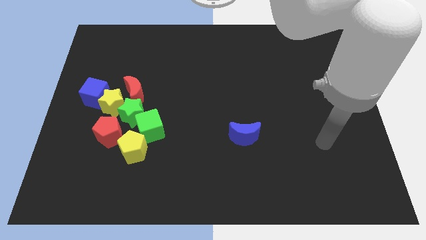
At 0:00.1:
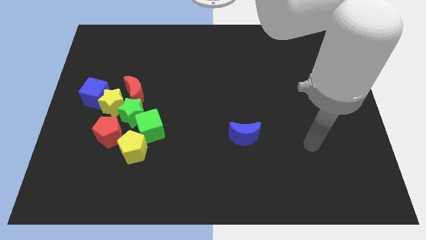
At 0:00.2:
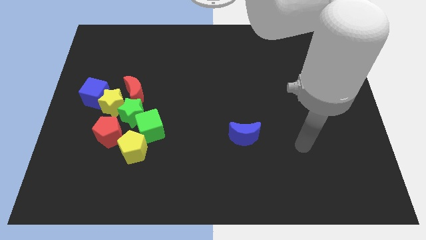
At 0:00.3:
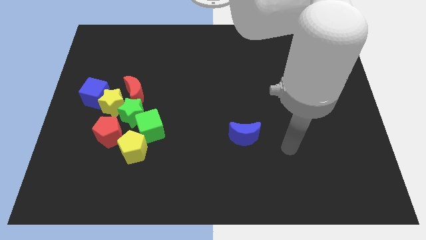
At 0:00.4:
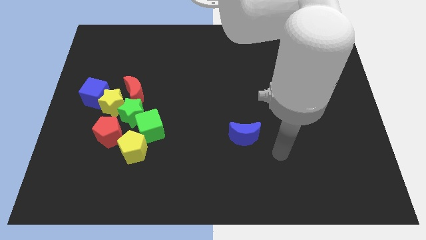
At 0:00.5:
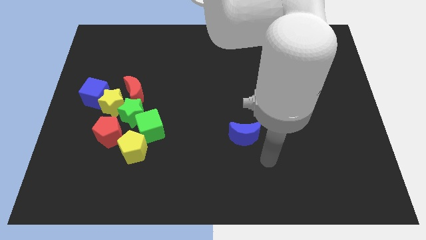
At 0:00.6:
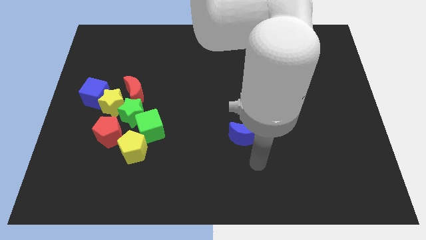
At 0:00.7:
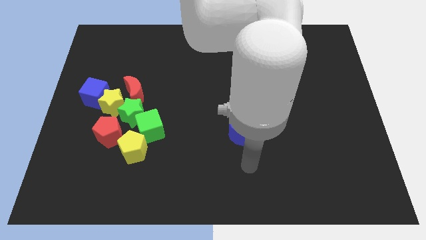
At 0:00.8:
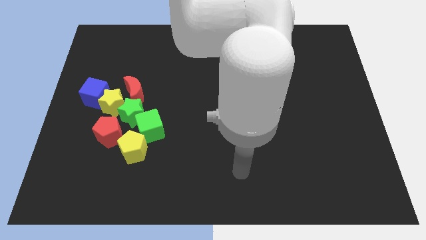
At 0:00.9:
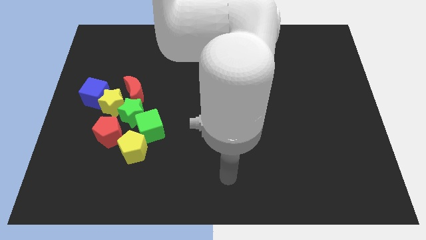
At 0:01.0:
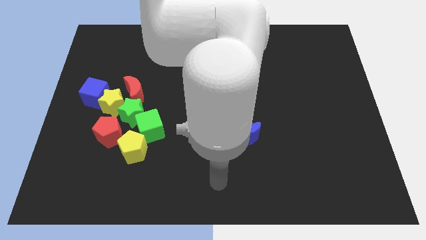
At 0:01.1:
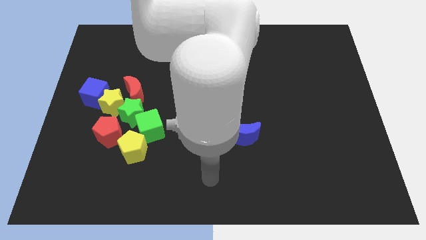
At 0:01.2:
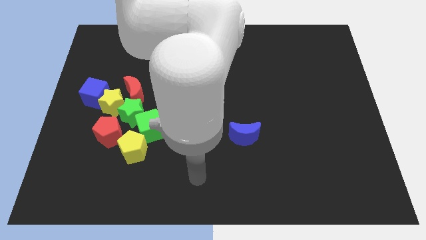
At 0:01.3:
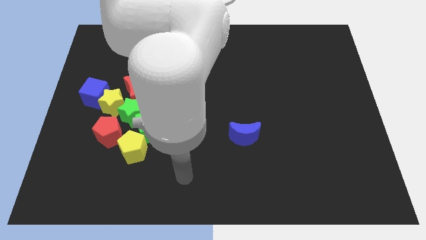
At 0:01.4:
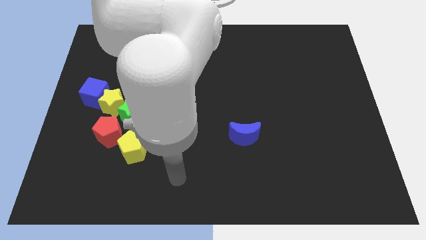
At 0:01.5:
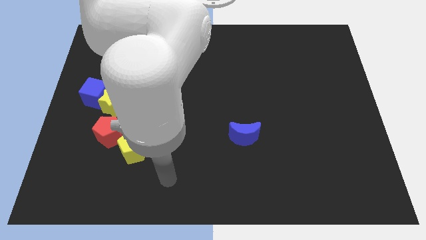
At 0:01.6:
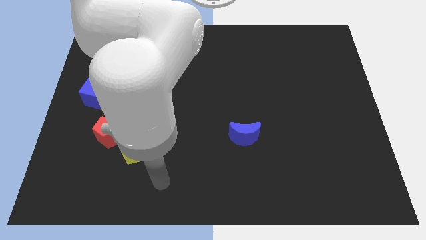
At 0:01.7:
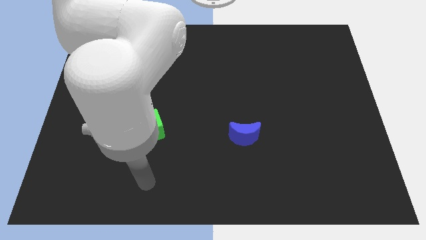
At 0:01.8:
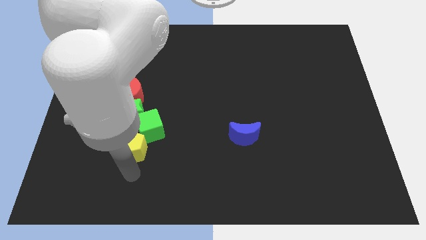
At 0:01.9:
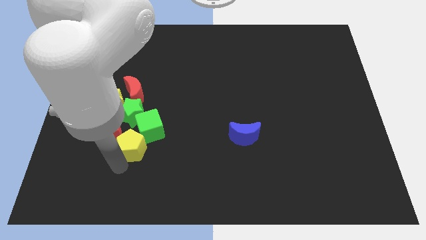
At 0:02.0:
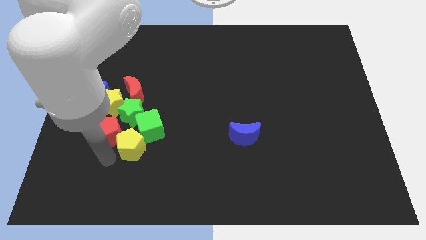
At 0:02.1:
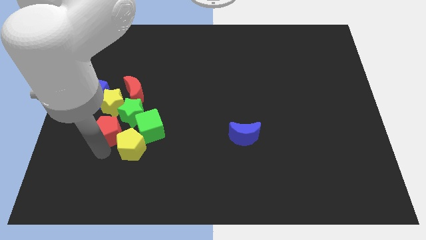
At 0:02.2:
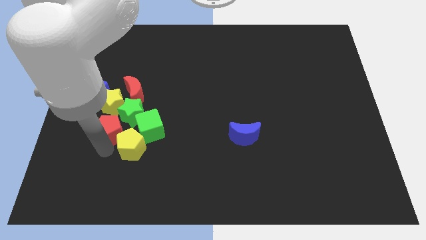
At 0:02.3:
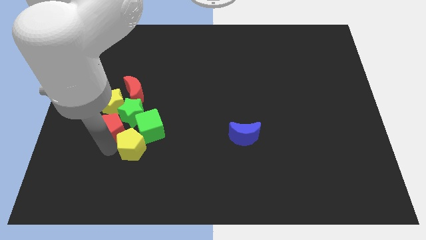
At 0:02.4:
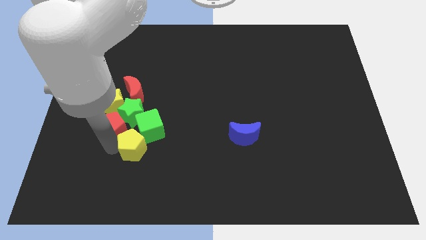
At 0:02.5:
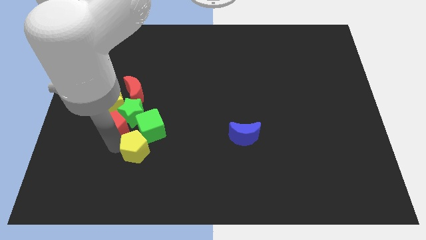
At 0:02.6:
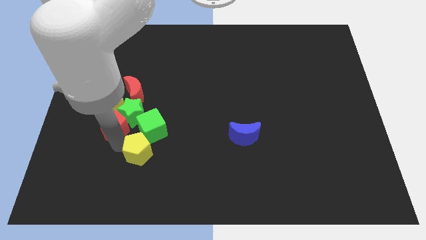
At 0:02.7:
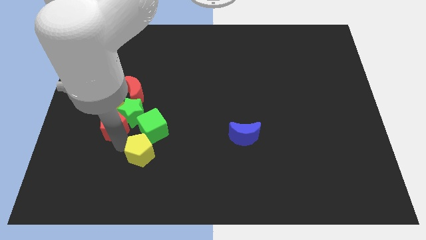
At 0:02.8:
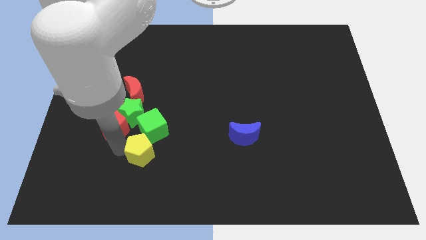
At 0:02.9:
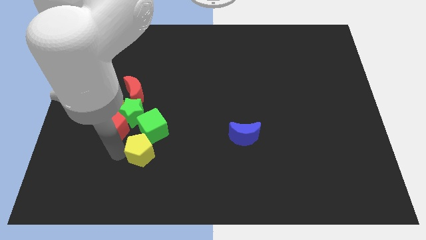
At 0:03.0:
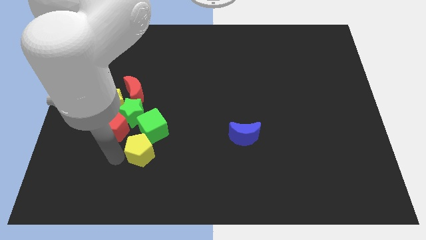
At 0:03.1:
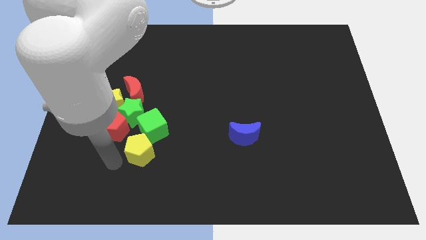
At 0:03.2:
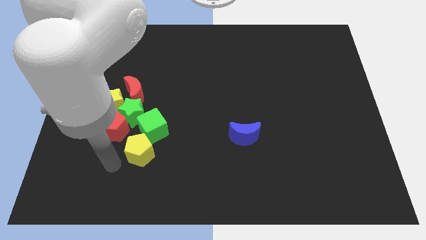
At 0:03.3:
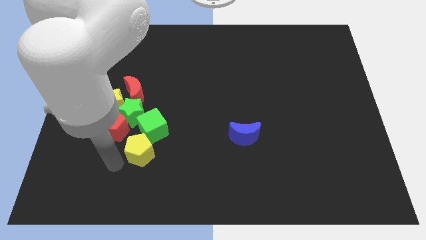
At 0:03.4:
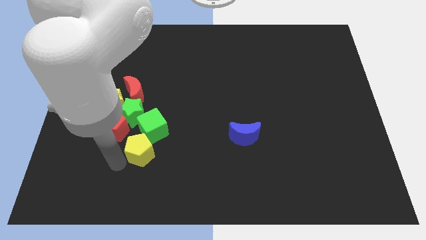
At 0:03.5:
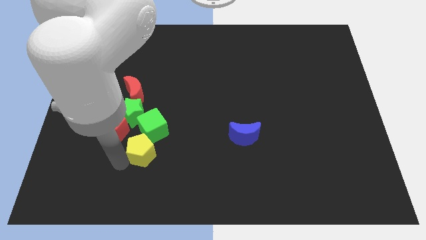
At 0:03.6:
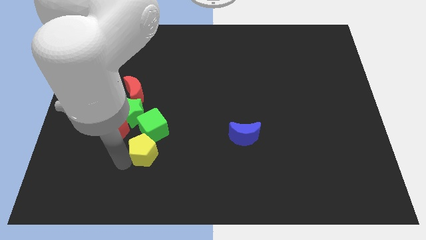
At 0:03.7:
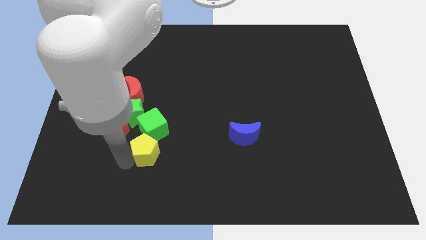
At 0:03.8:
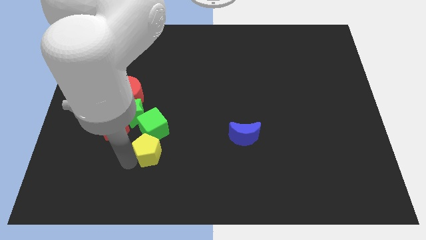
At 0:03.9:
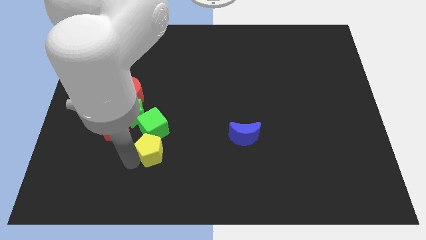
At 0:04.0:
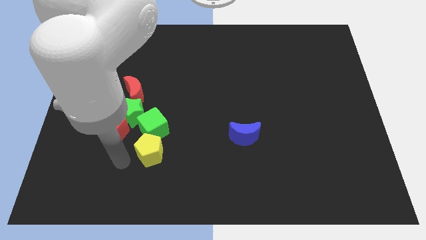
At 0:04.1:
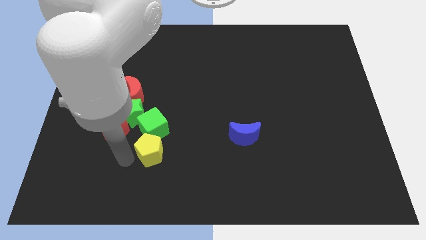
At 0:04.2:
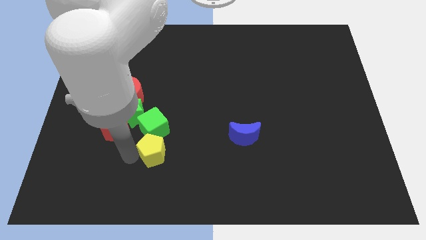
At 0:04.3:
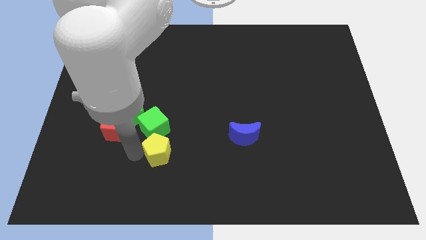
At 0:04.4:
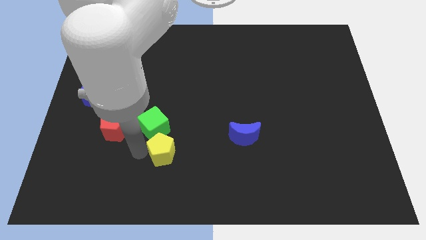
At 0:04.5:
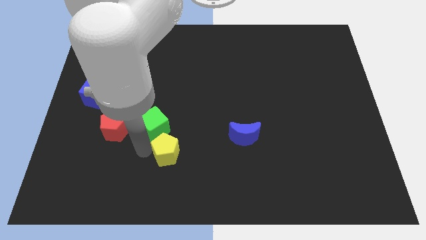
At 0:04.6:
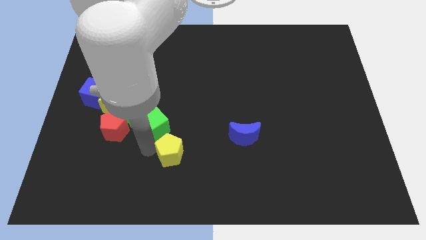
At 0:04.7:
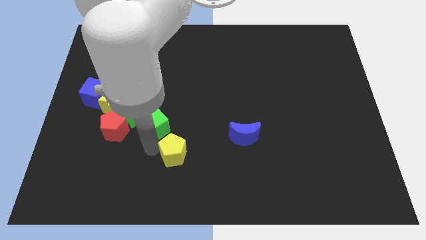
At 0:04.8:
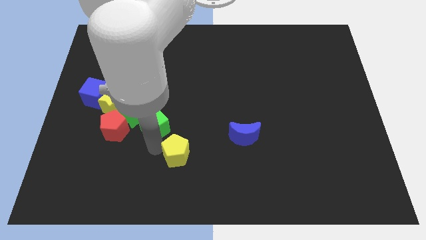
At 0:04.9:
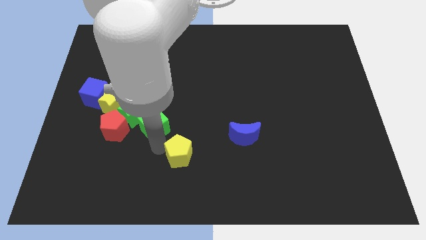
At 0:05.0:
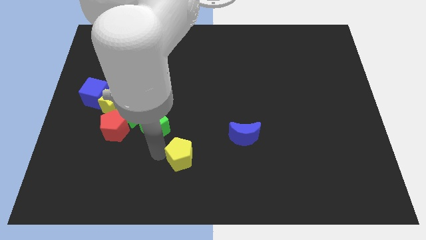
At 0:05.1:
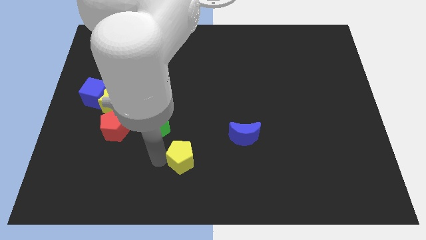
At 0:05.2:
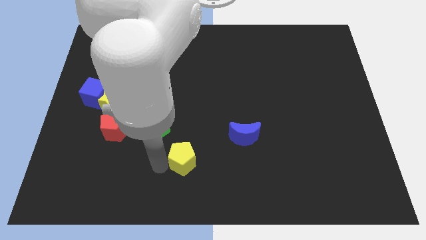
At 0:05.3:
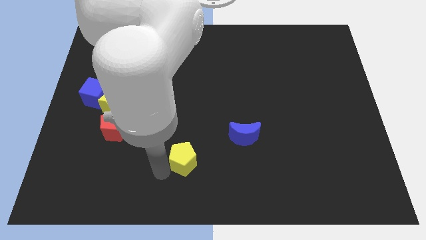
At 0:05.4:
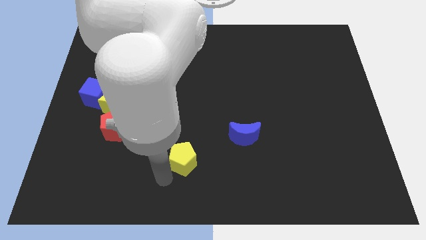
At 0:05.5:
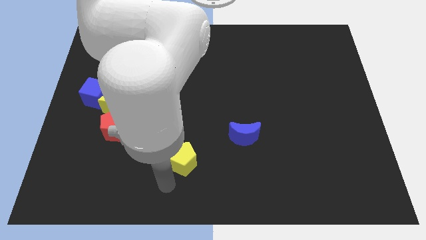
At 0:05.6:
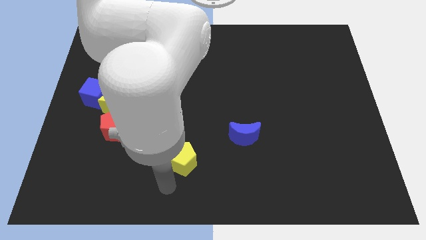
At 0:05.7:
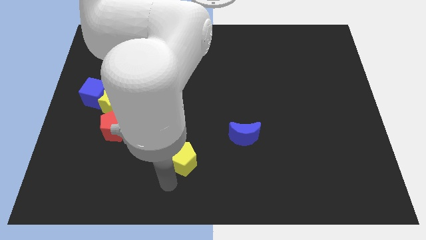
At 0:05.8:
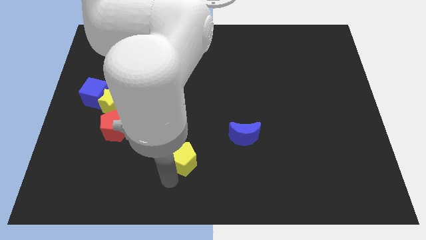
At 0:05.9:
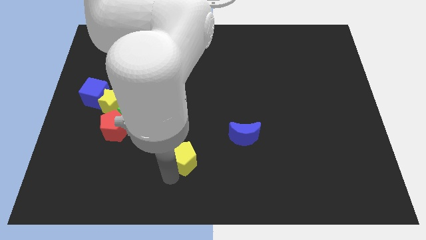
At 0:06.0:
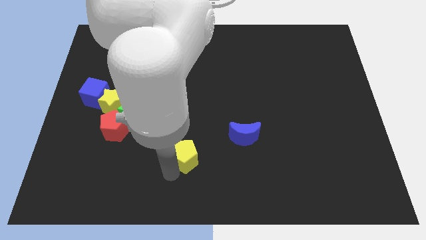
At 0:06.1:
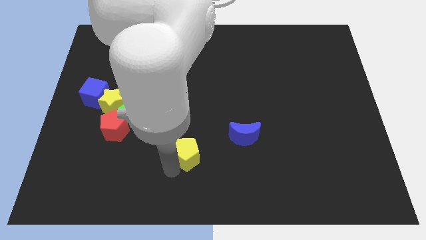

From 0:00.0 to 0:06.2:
push the yellow pentagon to the left of the blue moon

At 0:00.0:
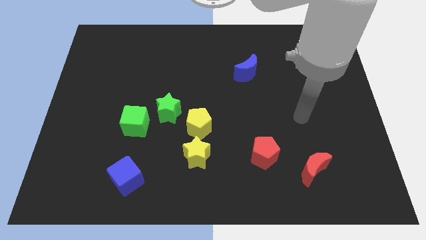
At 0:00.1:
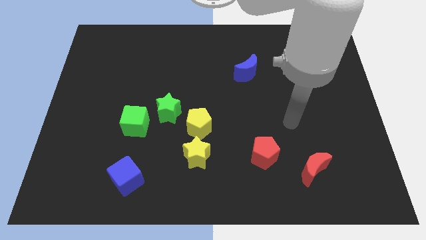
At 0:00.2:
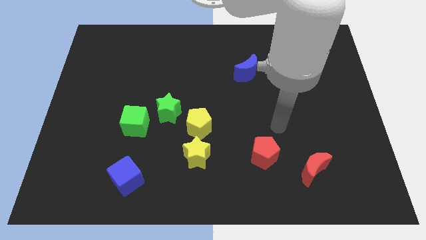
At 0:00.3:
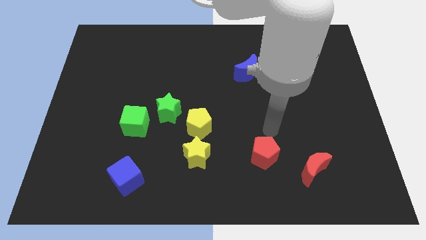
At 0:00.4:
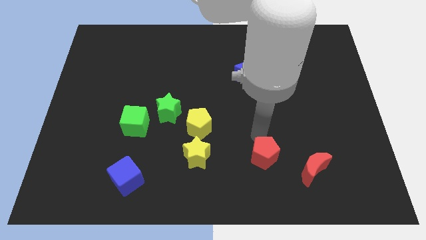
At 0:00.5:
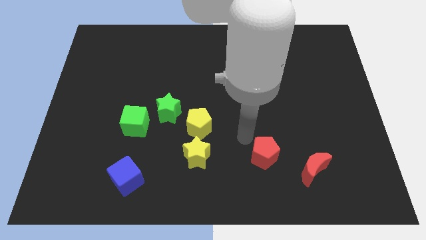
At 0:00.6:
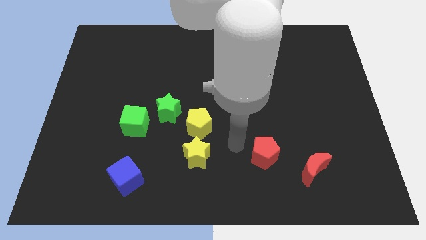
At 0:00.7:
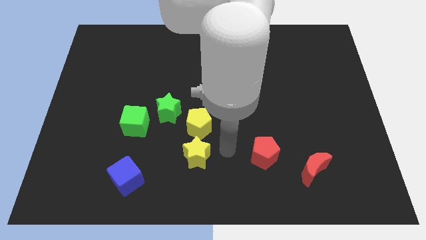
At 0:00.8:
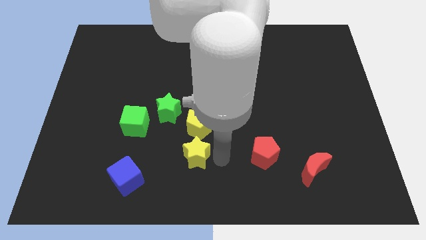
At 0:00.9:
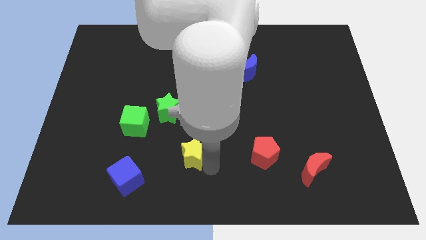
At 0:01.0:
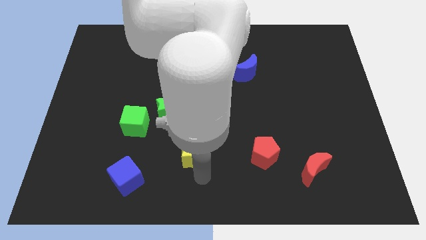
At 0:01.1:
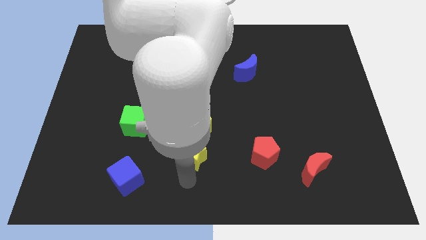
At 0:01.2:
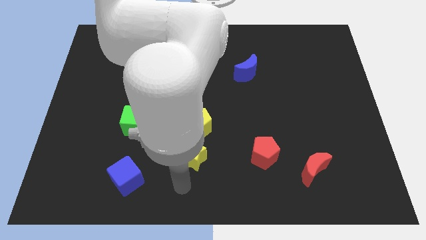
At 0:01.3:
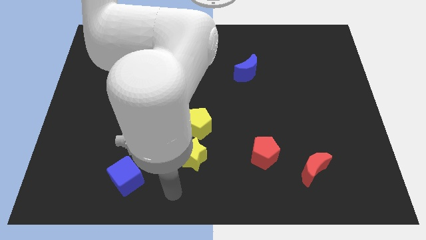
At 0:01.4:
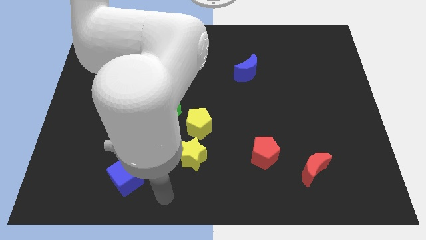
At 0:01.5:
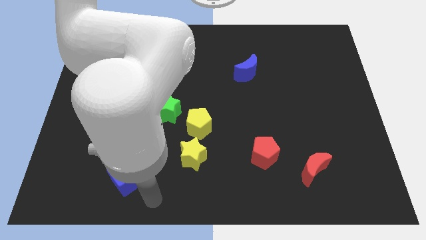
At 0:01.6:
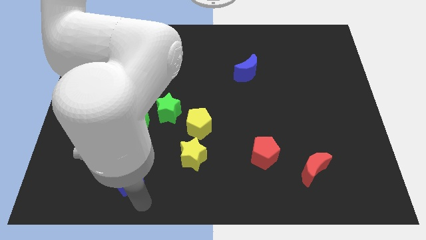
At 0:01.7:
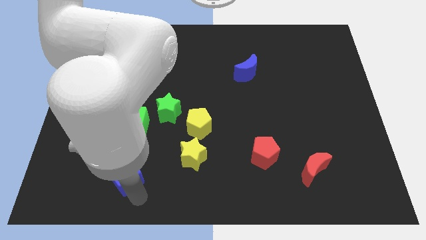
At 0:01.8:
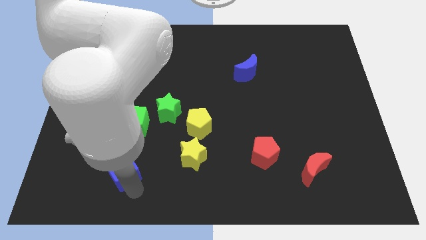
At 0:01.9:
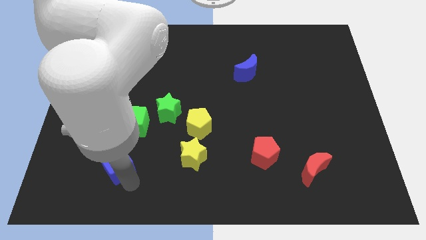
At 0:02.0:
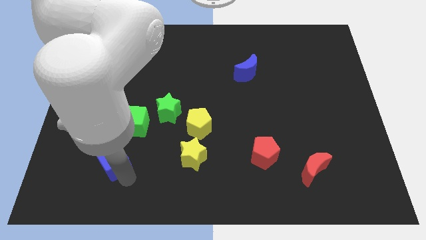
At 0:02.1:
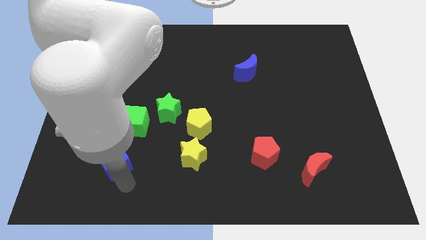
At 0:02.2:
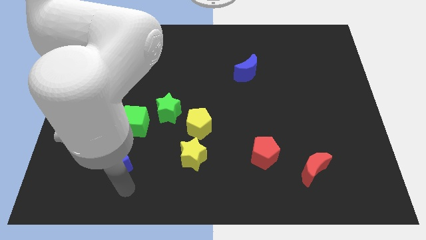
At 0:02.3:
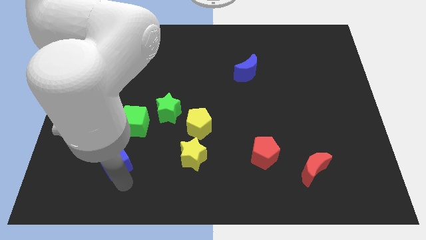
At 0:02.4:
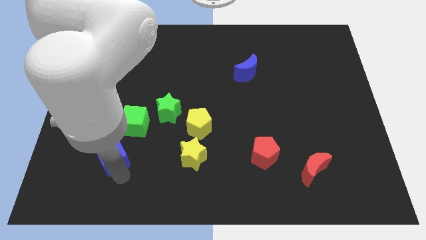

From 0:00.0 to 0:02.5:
slide the blue cube to the bottom left of the green cube
